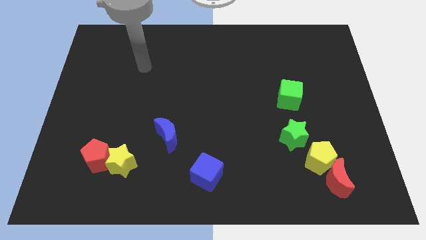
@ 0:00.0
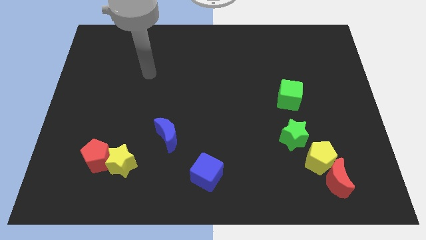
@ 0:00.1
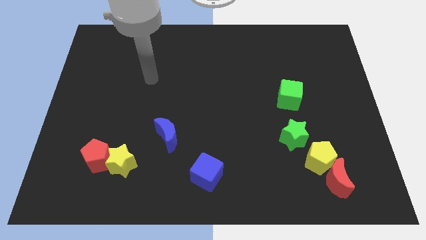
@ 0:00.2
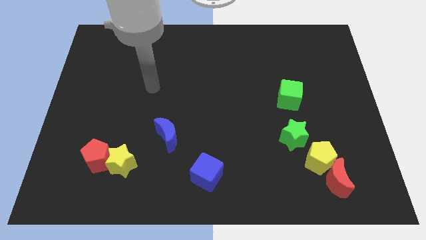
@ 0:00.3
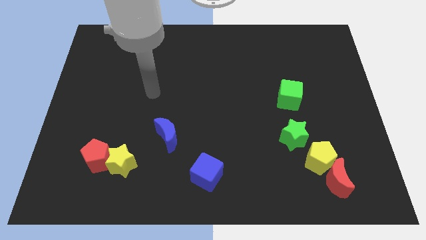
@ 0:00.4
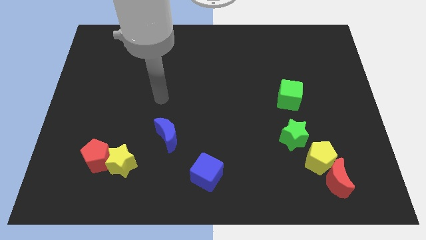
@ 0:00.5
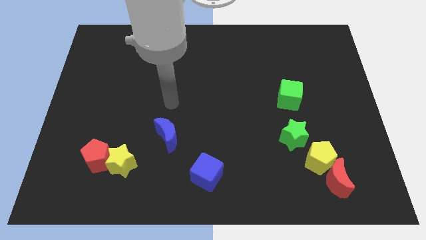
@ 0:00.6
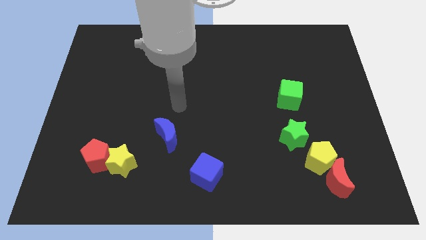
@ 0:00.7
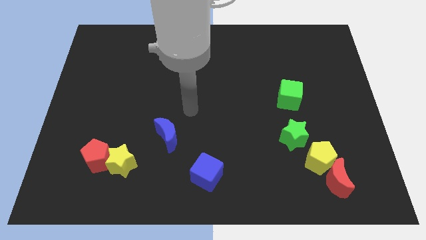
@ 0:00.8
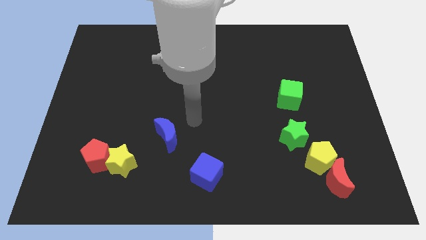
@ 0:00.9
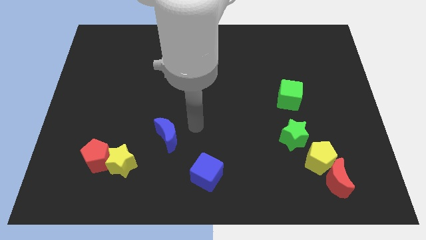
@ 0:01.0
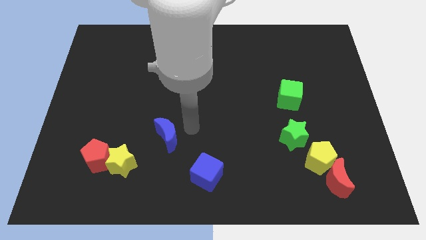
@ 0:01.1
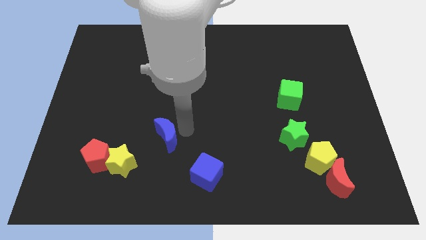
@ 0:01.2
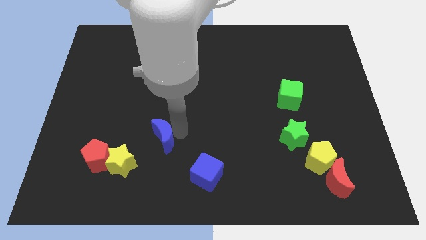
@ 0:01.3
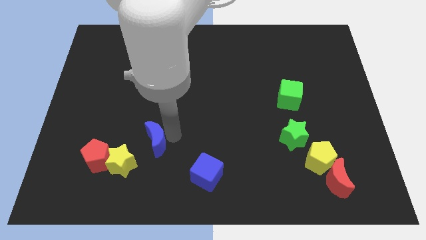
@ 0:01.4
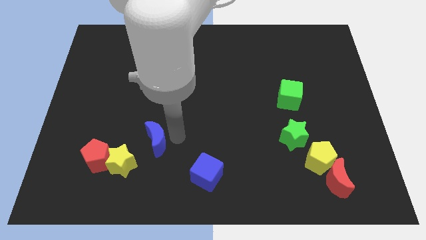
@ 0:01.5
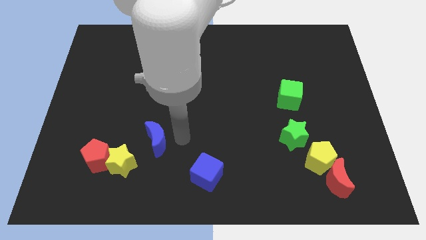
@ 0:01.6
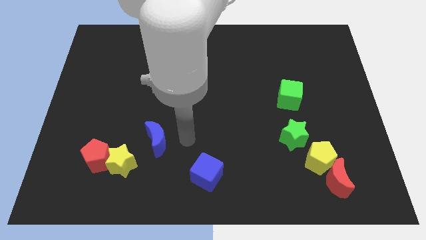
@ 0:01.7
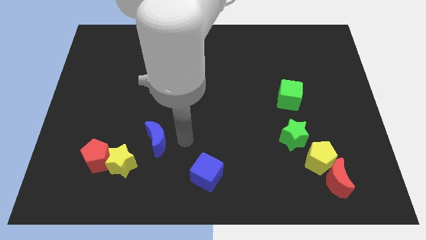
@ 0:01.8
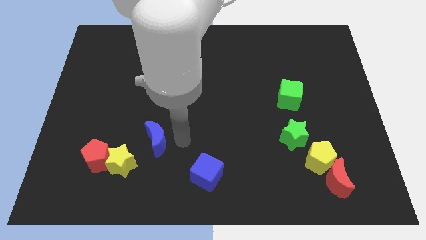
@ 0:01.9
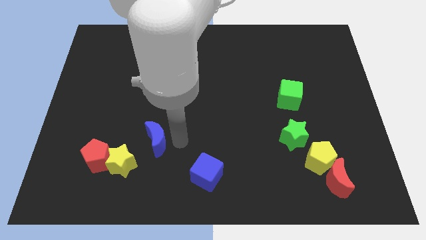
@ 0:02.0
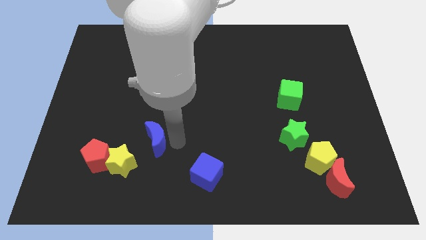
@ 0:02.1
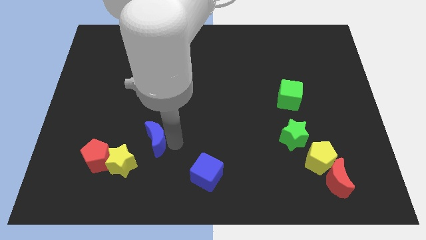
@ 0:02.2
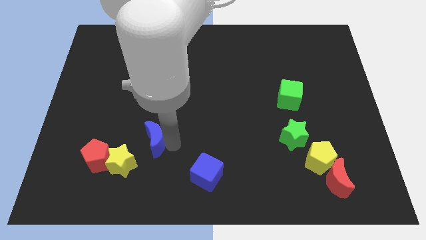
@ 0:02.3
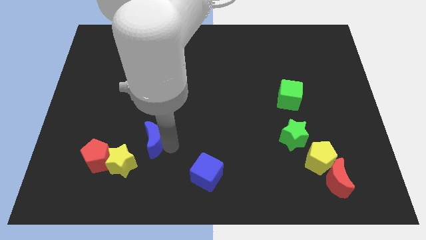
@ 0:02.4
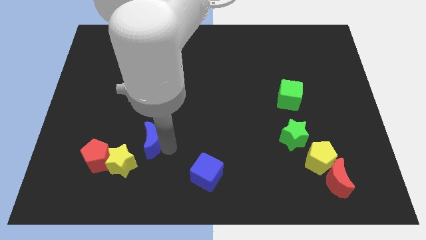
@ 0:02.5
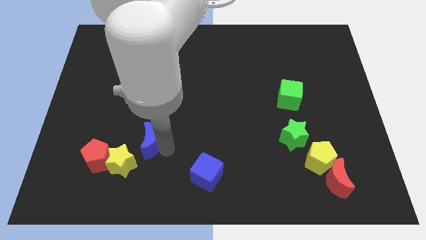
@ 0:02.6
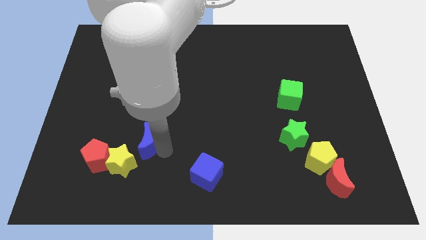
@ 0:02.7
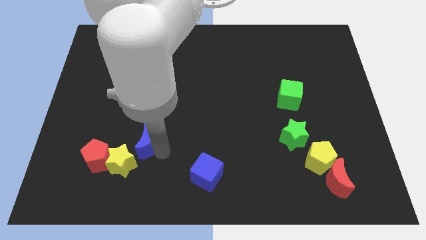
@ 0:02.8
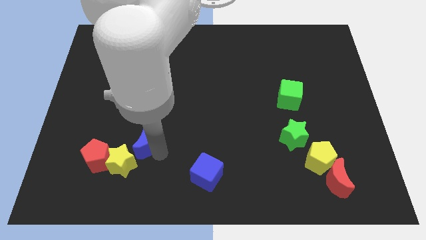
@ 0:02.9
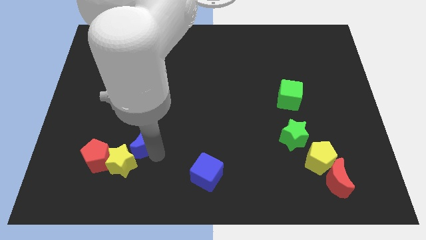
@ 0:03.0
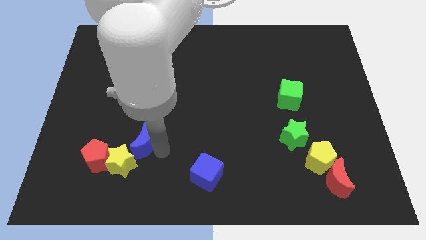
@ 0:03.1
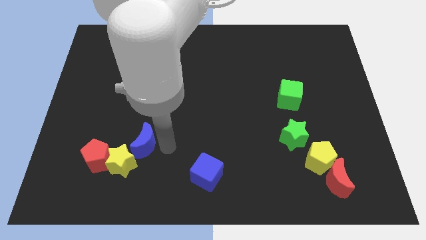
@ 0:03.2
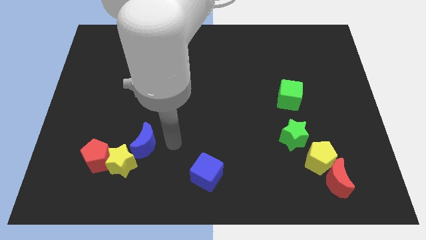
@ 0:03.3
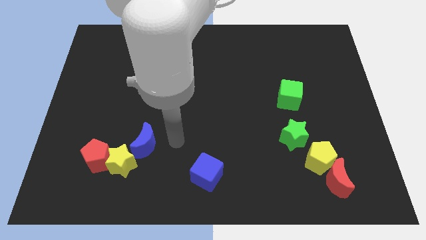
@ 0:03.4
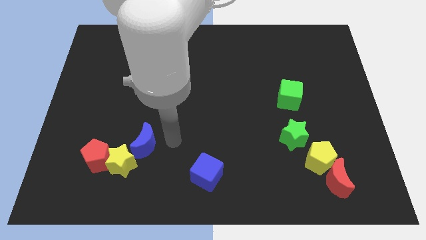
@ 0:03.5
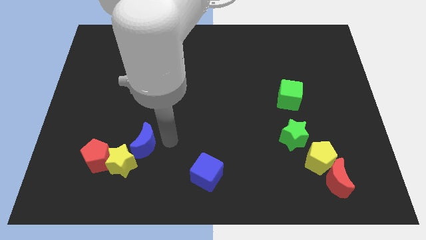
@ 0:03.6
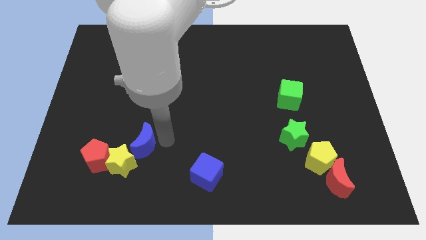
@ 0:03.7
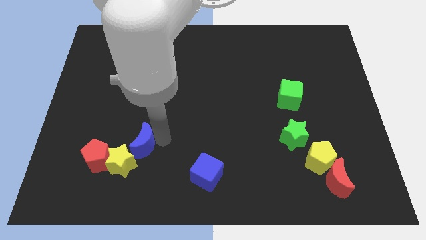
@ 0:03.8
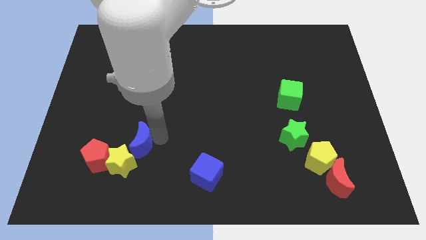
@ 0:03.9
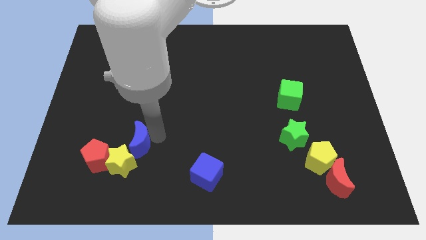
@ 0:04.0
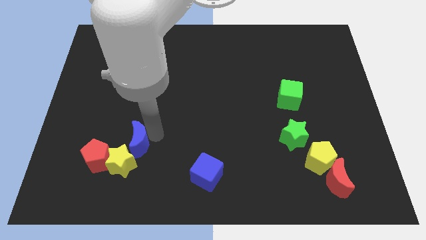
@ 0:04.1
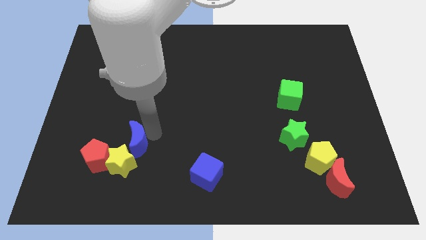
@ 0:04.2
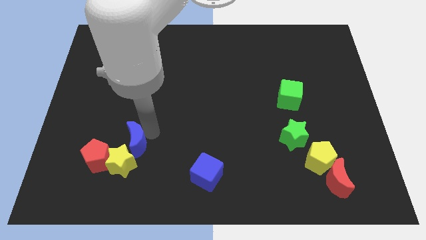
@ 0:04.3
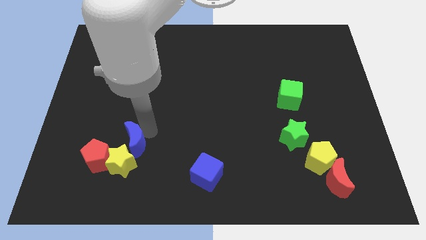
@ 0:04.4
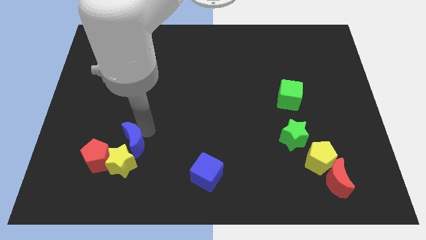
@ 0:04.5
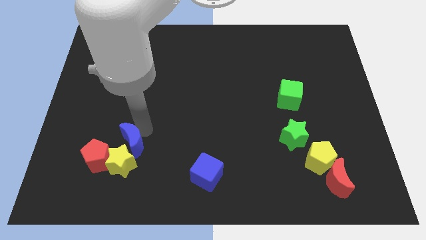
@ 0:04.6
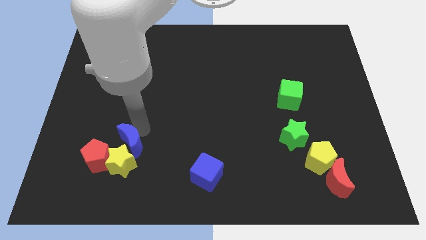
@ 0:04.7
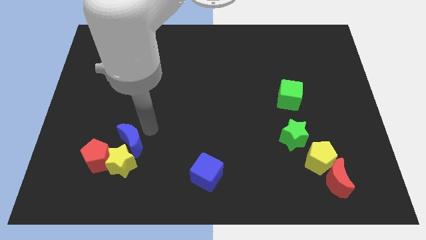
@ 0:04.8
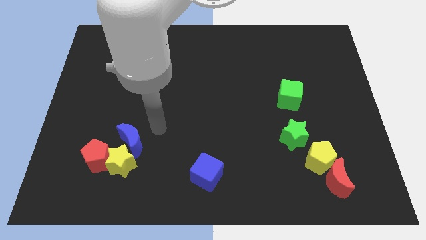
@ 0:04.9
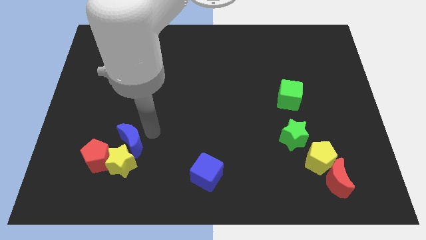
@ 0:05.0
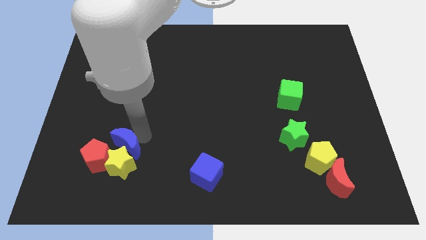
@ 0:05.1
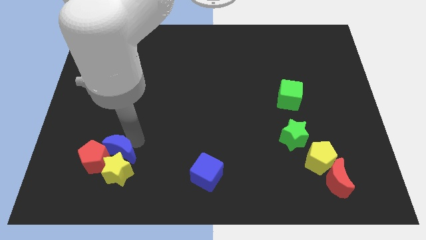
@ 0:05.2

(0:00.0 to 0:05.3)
push the blue moon close to the red pentagon

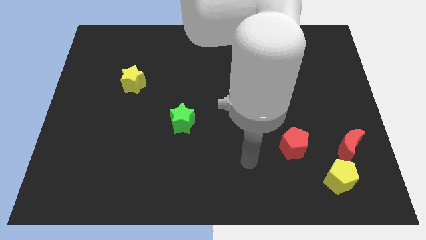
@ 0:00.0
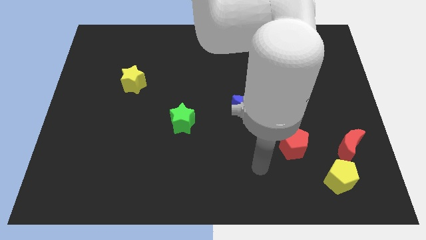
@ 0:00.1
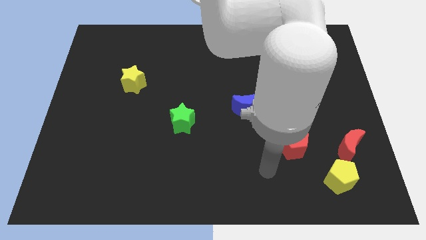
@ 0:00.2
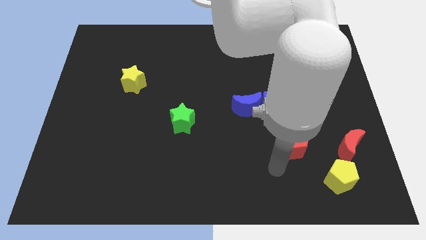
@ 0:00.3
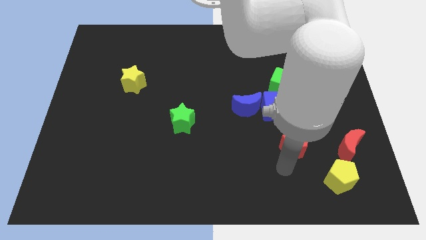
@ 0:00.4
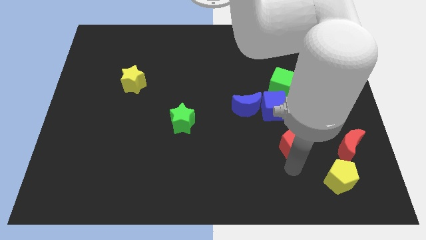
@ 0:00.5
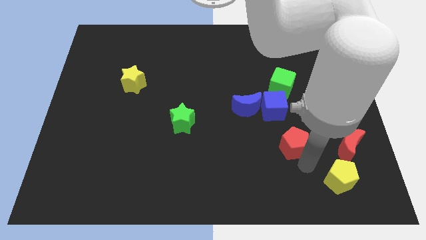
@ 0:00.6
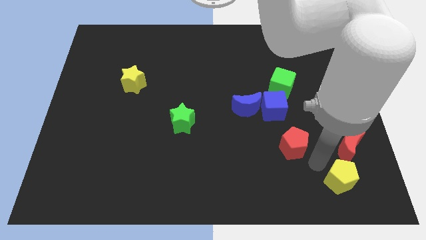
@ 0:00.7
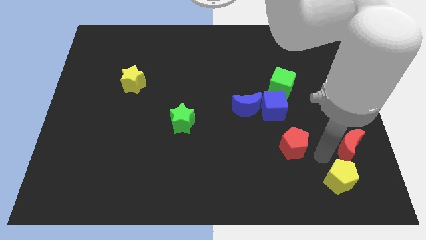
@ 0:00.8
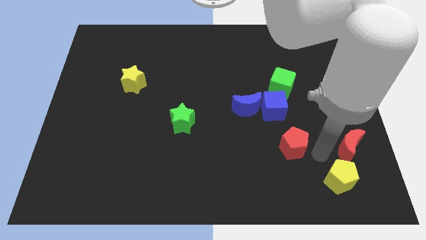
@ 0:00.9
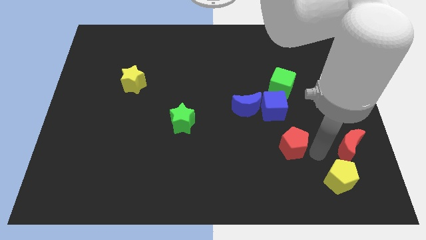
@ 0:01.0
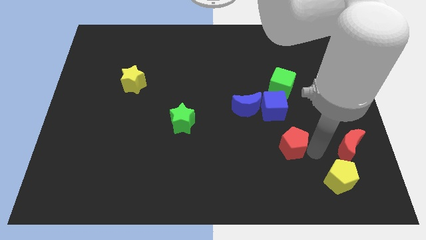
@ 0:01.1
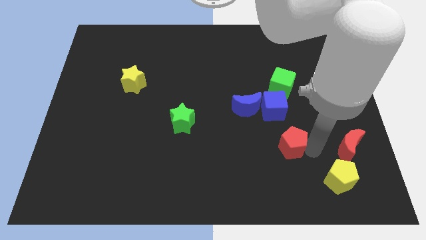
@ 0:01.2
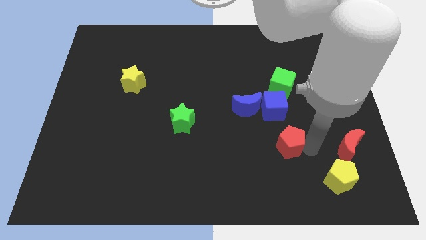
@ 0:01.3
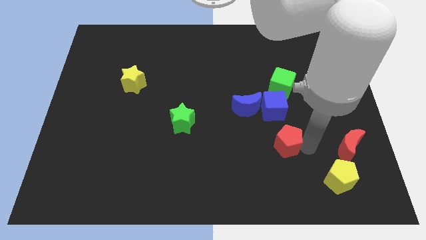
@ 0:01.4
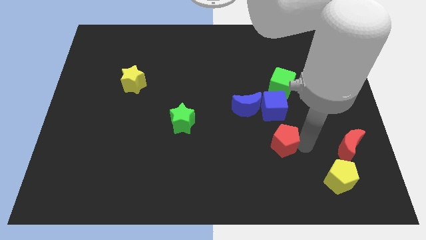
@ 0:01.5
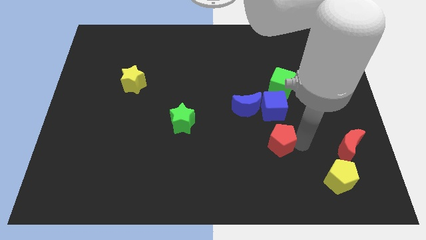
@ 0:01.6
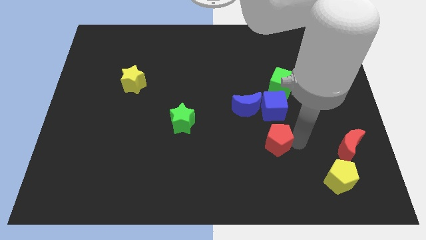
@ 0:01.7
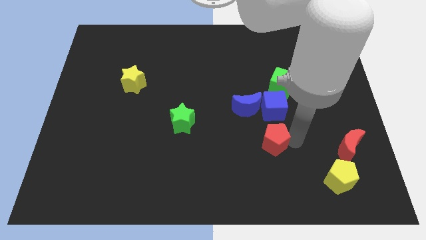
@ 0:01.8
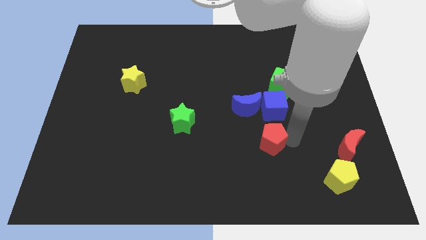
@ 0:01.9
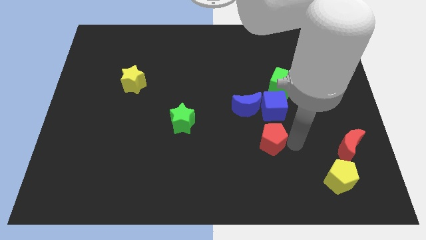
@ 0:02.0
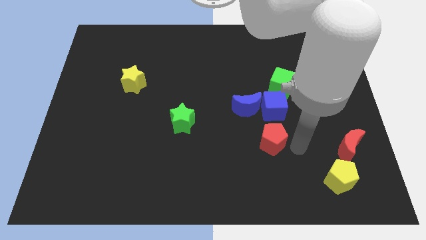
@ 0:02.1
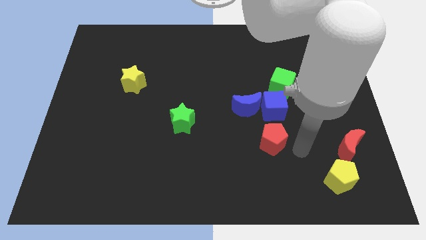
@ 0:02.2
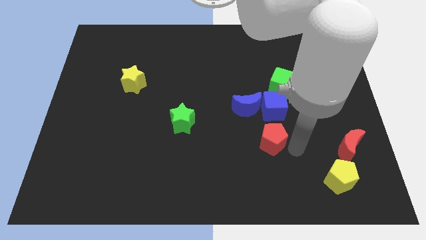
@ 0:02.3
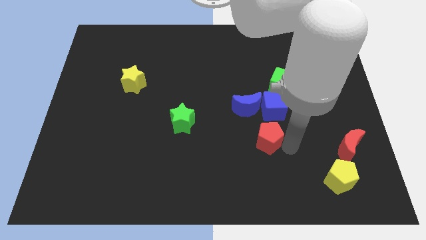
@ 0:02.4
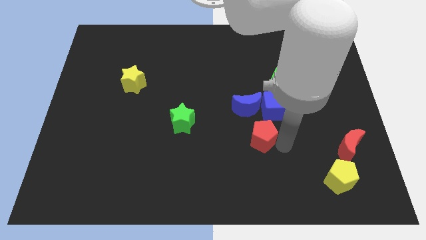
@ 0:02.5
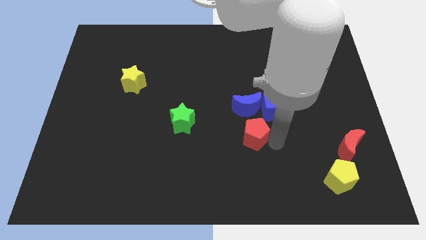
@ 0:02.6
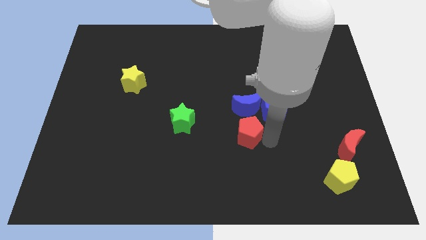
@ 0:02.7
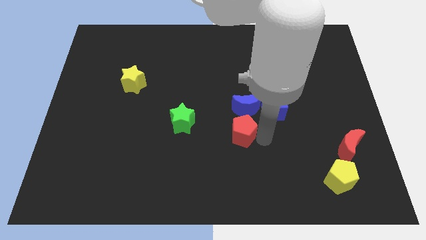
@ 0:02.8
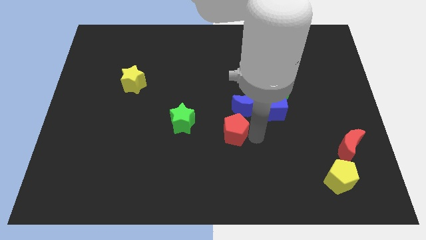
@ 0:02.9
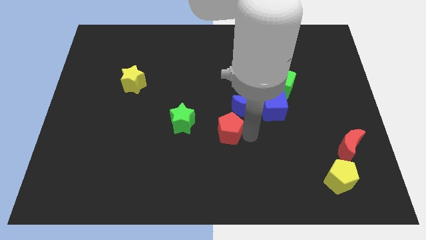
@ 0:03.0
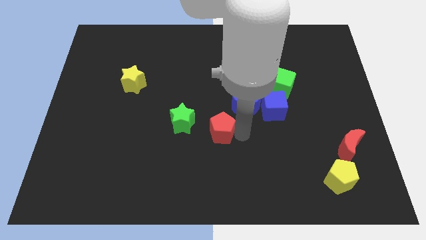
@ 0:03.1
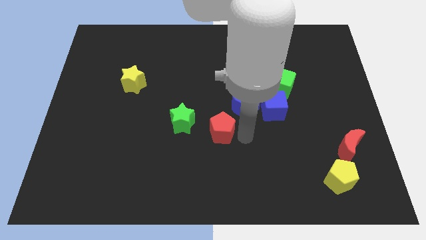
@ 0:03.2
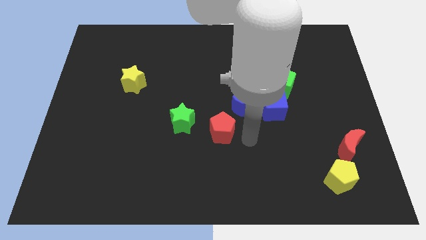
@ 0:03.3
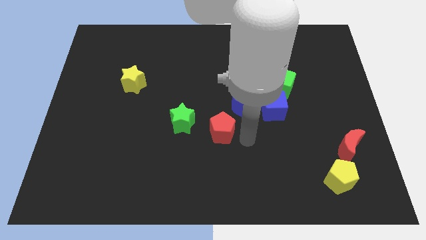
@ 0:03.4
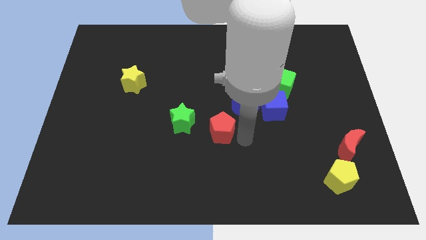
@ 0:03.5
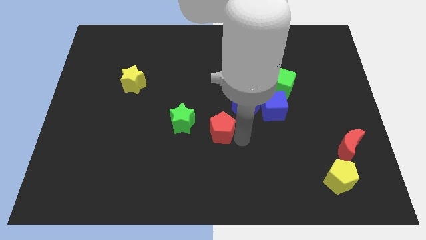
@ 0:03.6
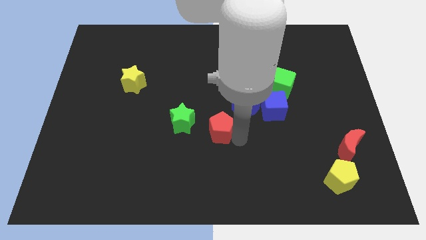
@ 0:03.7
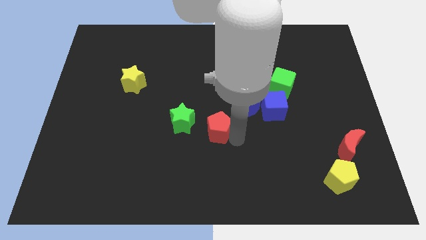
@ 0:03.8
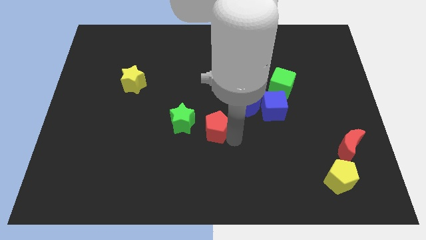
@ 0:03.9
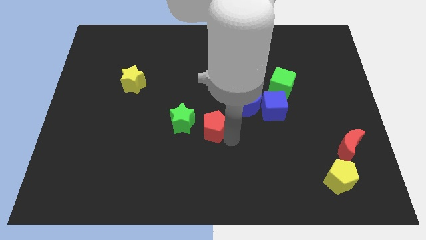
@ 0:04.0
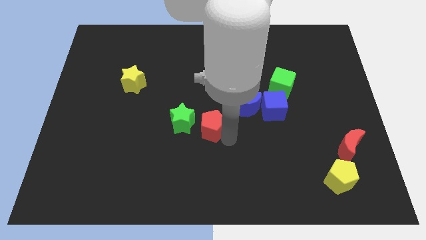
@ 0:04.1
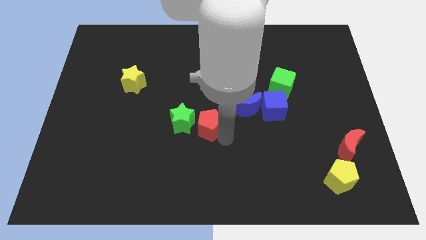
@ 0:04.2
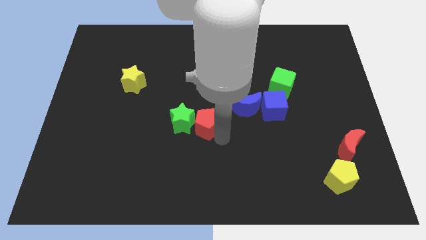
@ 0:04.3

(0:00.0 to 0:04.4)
slide the red pentagon next to the green star
